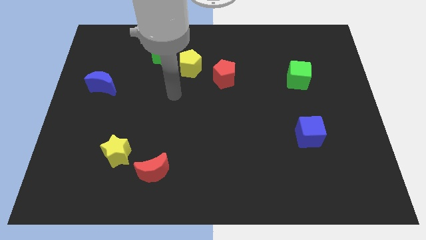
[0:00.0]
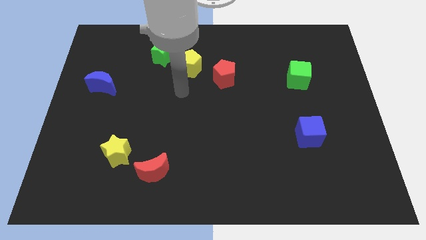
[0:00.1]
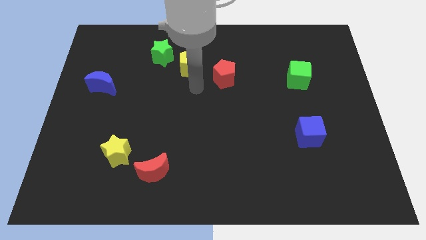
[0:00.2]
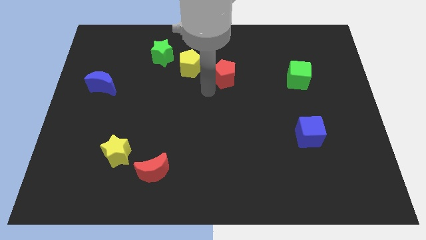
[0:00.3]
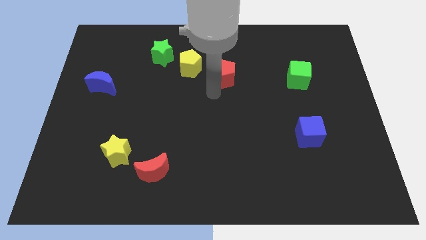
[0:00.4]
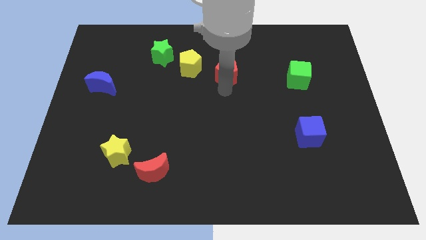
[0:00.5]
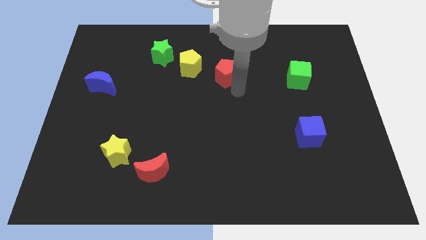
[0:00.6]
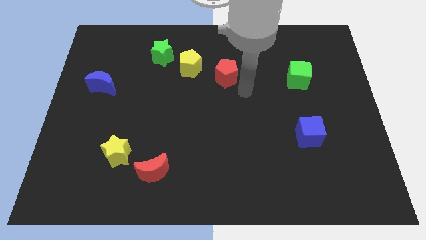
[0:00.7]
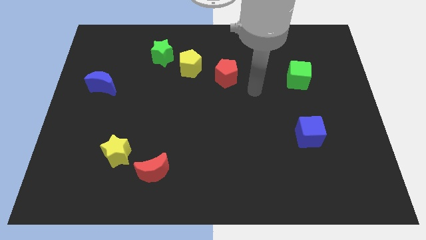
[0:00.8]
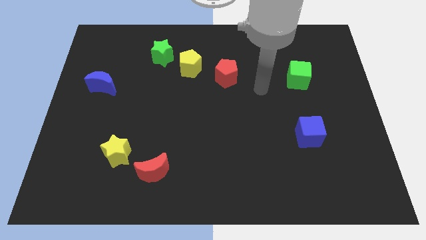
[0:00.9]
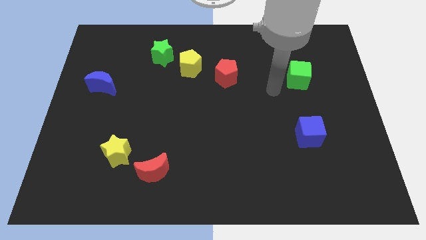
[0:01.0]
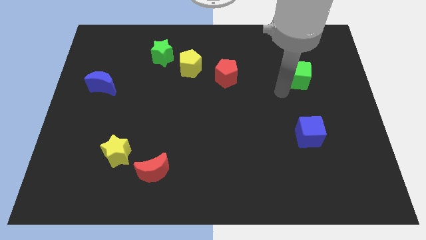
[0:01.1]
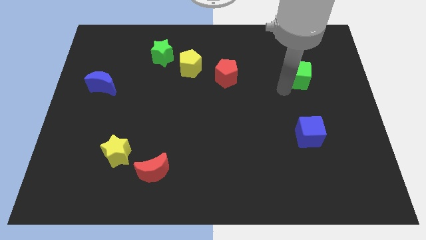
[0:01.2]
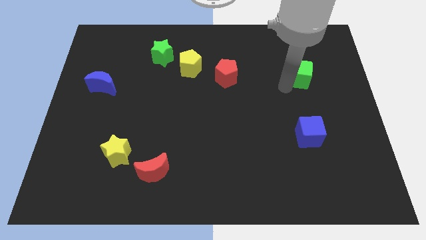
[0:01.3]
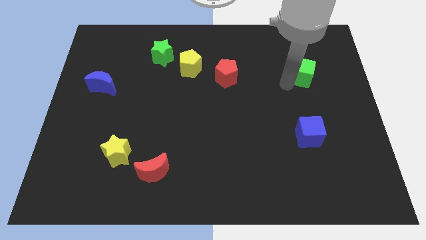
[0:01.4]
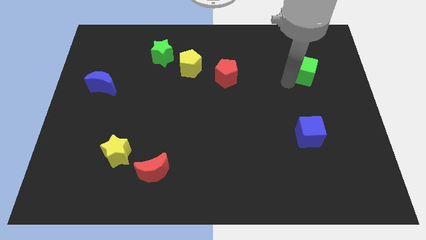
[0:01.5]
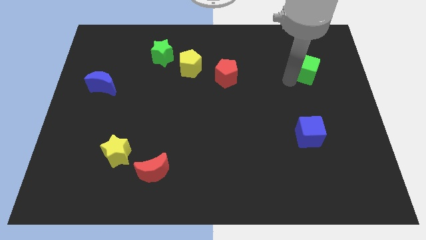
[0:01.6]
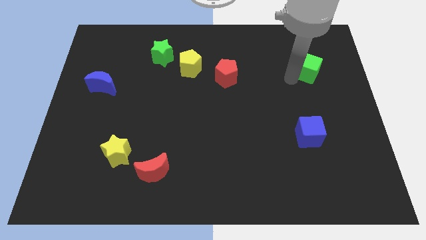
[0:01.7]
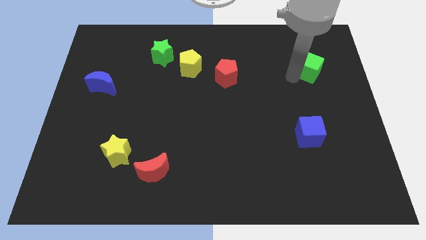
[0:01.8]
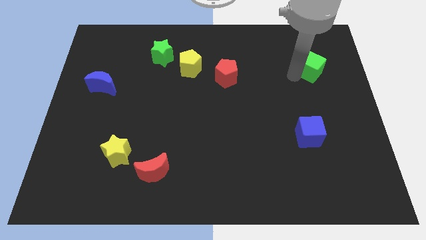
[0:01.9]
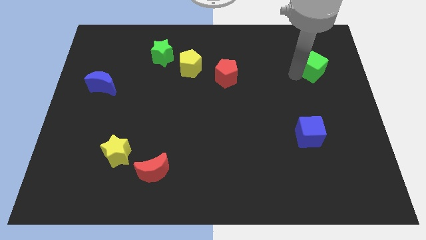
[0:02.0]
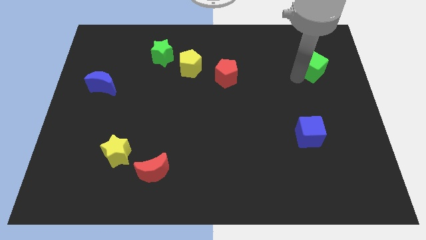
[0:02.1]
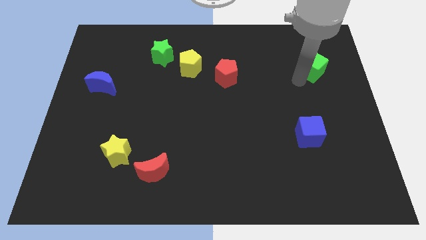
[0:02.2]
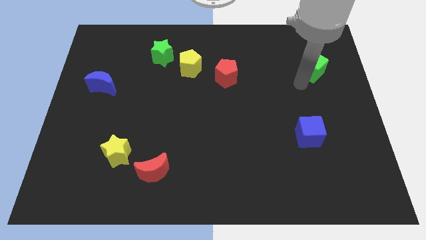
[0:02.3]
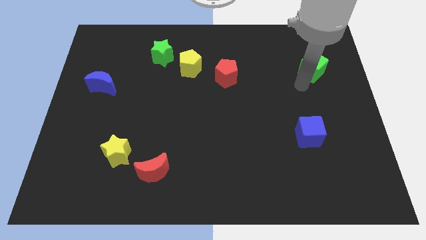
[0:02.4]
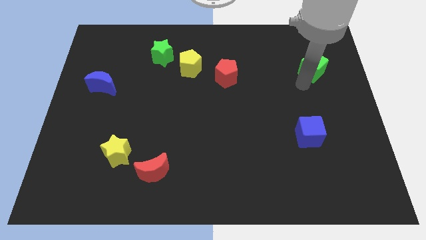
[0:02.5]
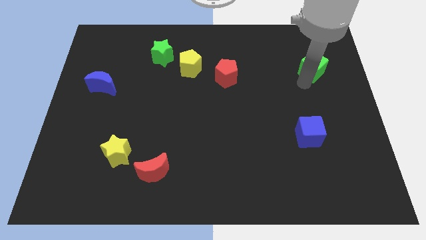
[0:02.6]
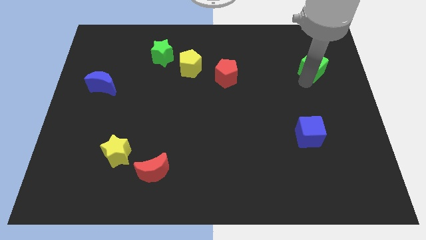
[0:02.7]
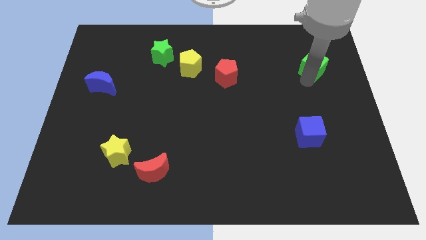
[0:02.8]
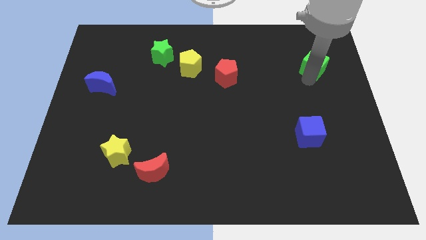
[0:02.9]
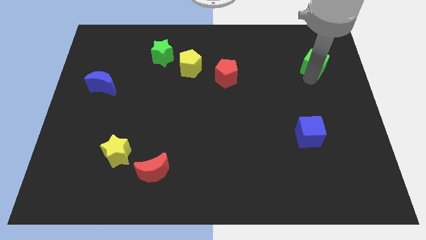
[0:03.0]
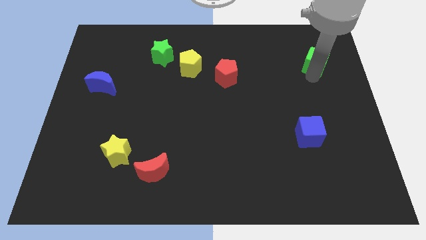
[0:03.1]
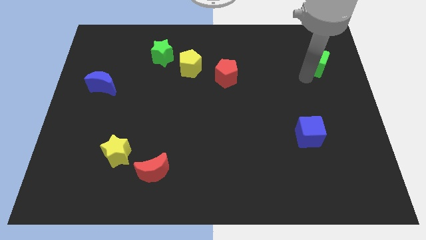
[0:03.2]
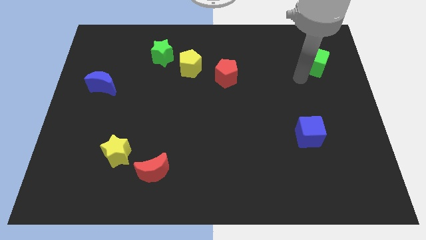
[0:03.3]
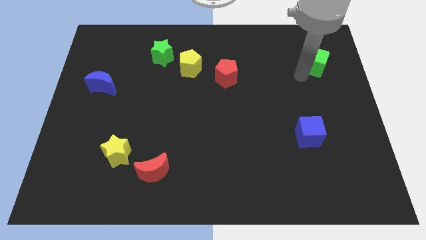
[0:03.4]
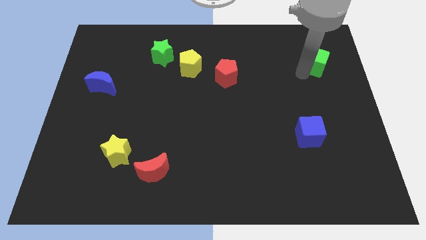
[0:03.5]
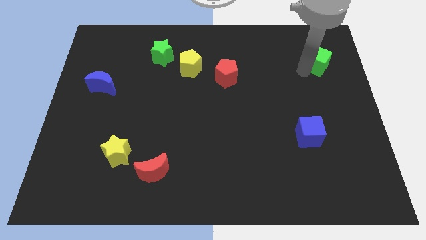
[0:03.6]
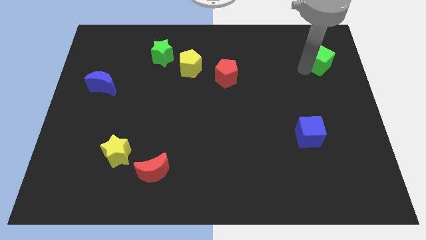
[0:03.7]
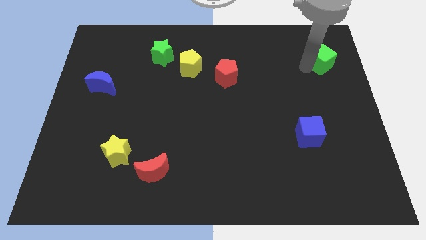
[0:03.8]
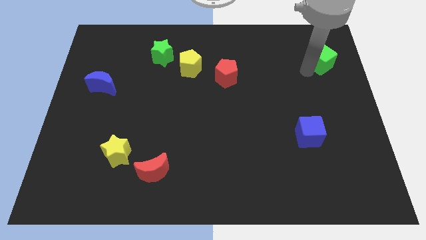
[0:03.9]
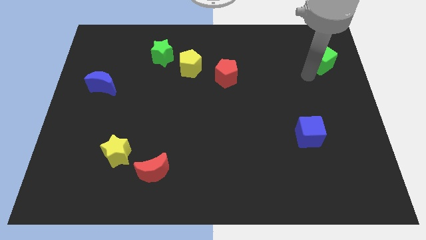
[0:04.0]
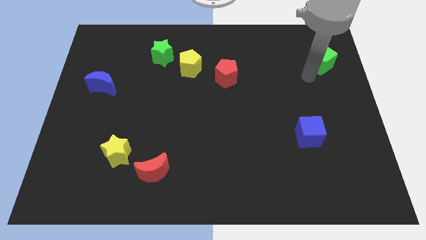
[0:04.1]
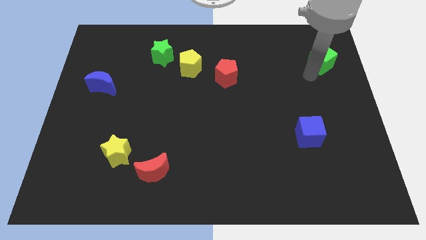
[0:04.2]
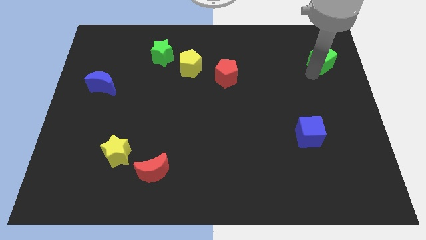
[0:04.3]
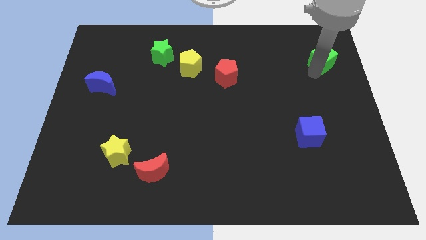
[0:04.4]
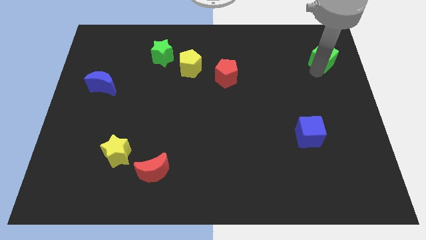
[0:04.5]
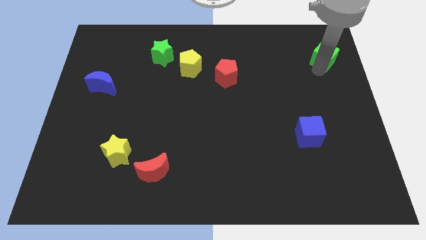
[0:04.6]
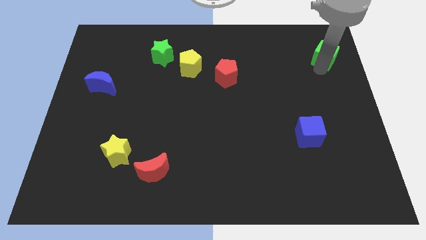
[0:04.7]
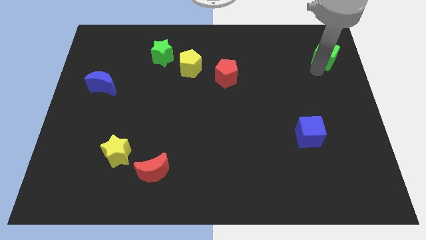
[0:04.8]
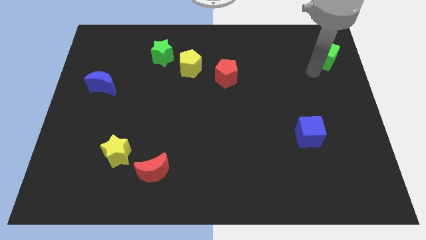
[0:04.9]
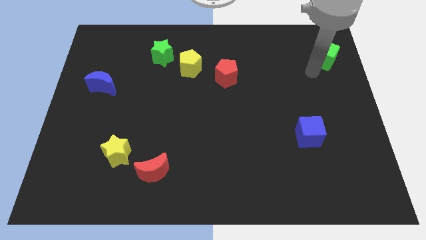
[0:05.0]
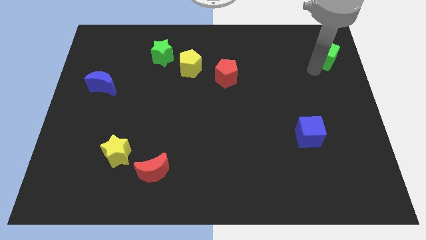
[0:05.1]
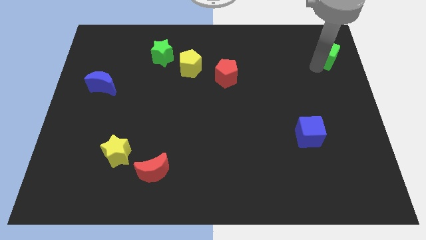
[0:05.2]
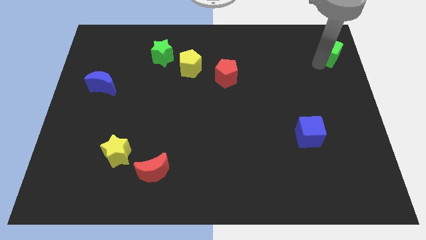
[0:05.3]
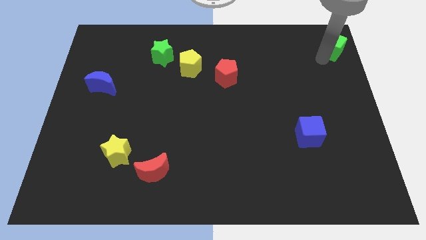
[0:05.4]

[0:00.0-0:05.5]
move the green cube to the upper right corner

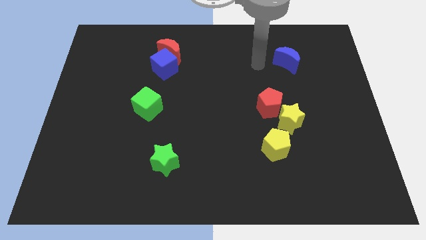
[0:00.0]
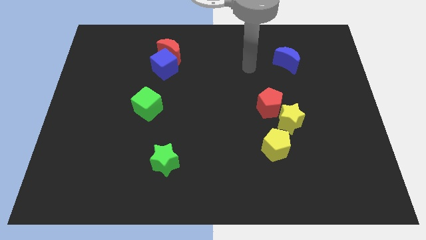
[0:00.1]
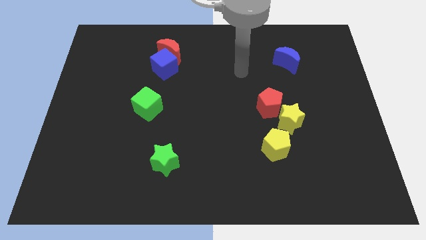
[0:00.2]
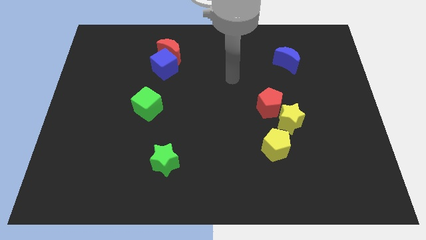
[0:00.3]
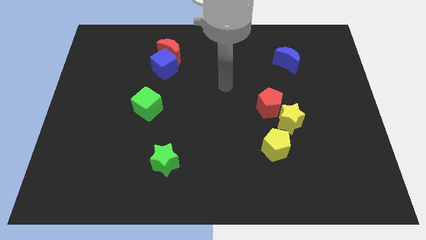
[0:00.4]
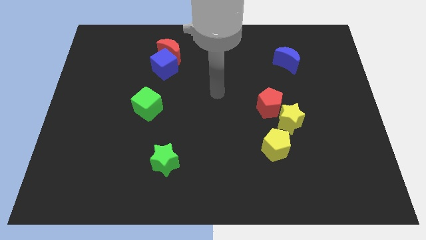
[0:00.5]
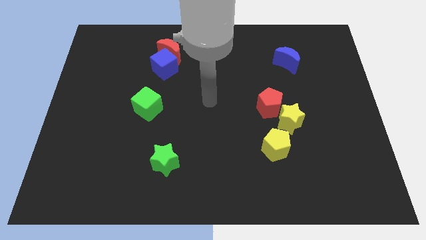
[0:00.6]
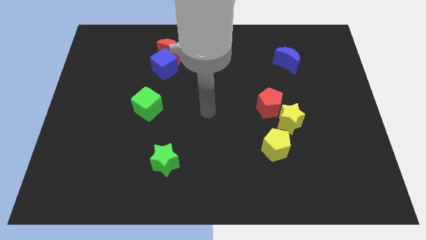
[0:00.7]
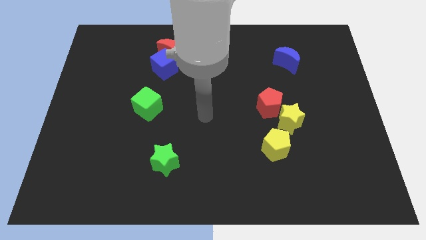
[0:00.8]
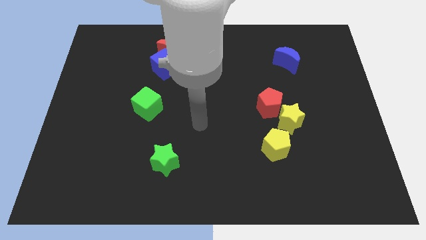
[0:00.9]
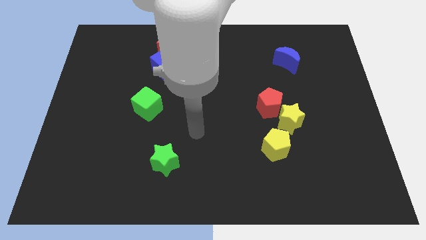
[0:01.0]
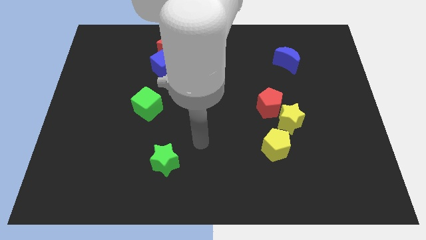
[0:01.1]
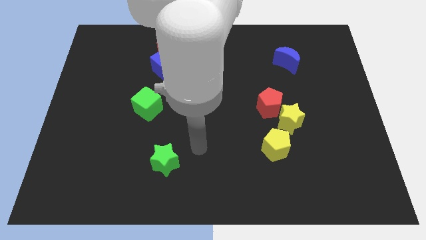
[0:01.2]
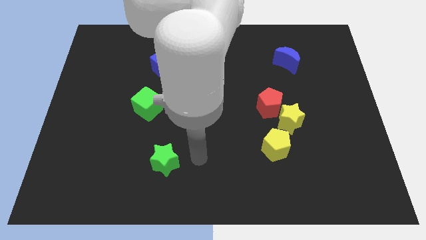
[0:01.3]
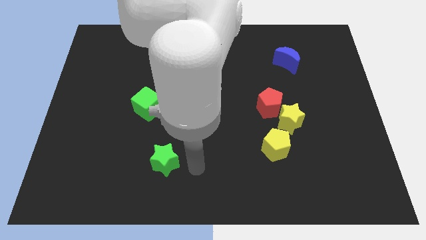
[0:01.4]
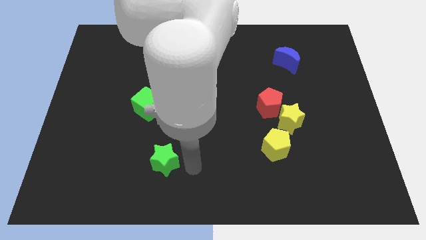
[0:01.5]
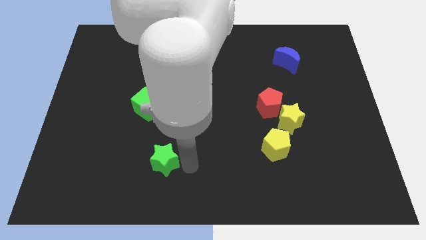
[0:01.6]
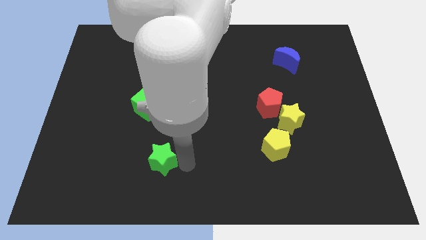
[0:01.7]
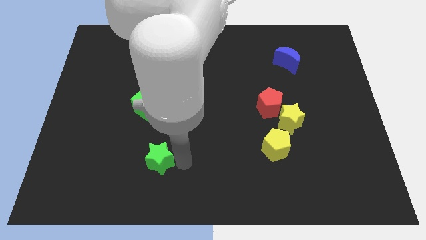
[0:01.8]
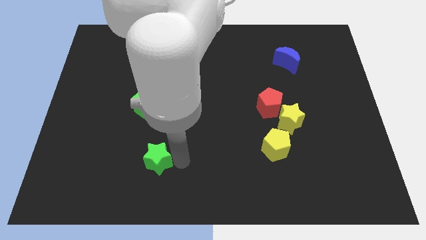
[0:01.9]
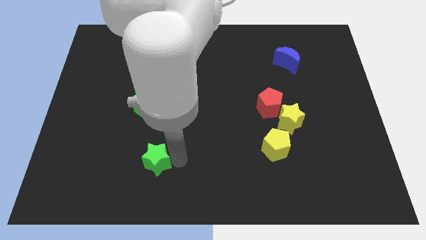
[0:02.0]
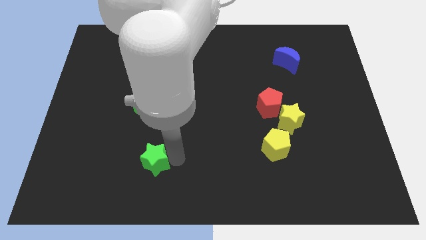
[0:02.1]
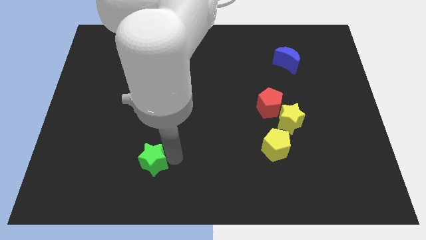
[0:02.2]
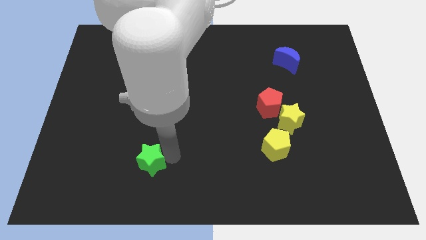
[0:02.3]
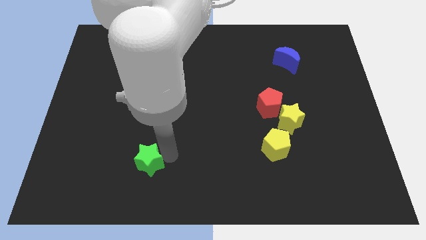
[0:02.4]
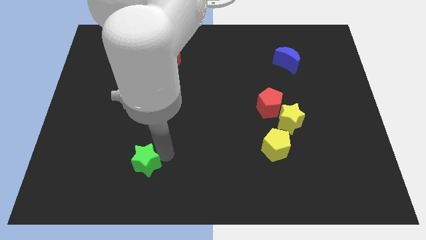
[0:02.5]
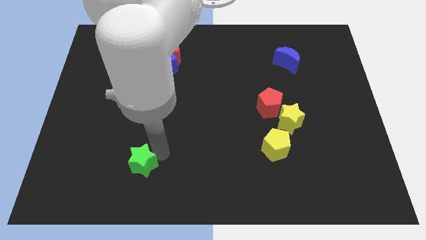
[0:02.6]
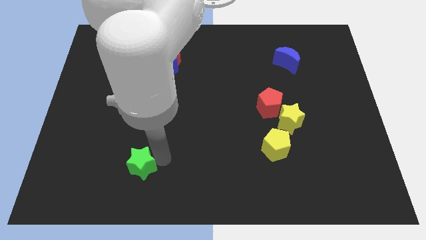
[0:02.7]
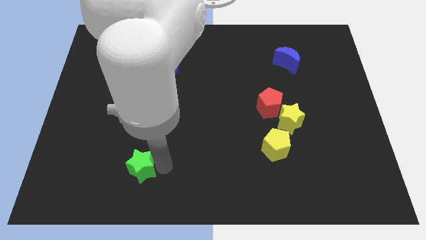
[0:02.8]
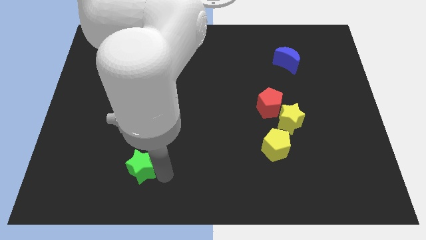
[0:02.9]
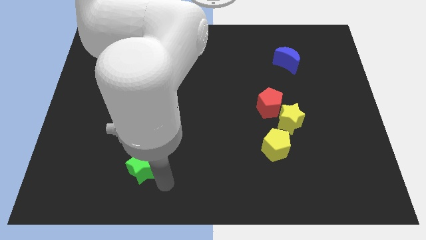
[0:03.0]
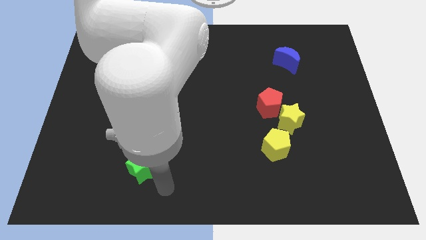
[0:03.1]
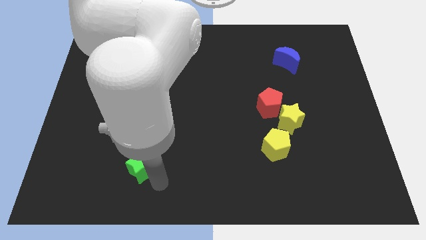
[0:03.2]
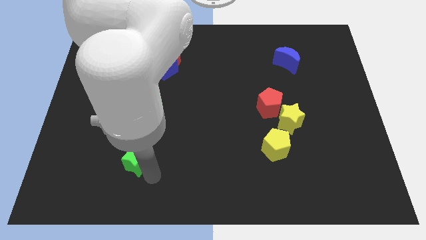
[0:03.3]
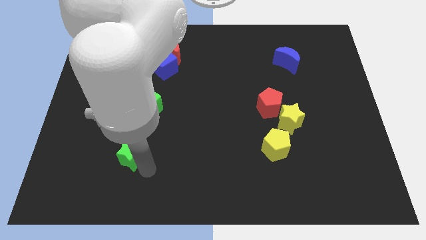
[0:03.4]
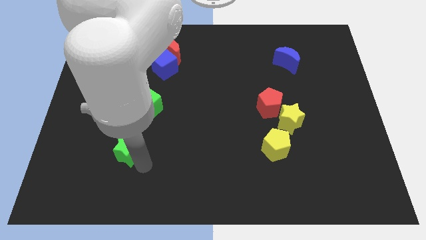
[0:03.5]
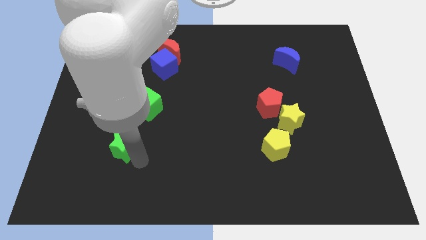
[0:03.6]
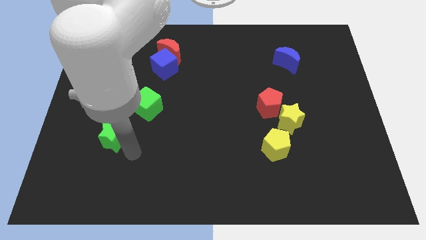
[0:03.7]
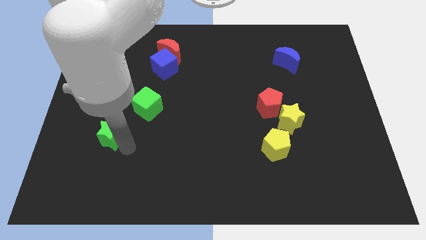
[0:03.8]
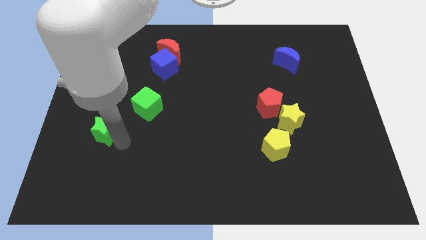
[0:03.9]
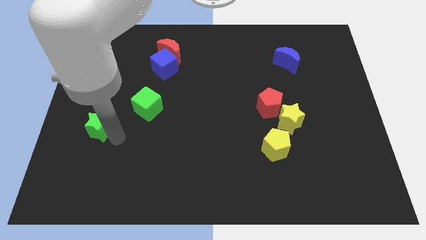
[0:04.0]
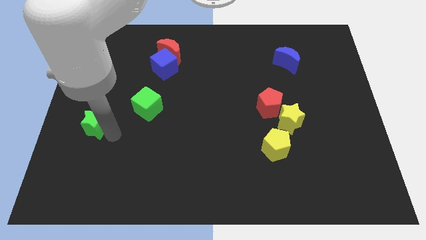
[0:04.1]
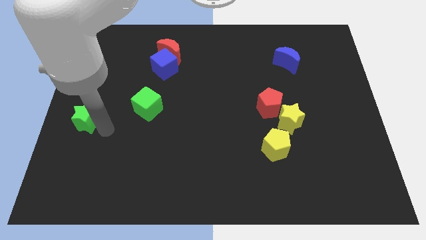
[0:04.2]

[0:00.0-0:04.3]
put the green star to the center left
